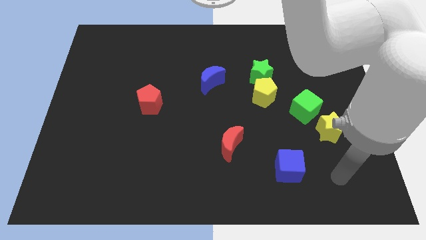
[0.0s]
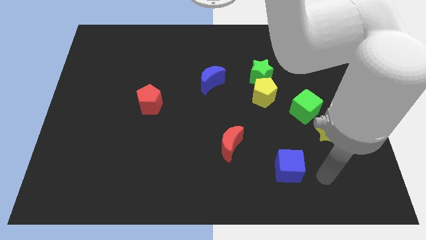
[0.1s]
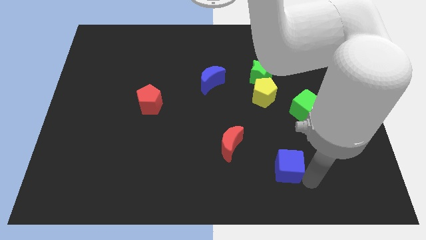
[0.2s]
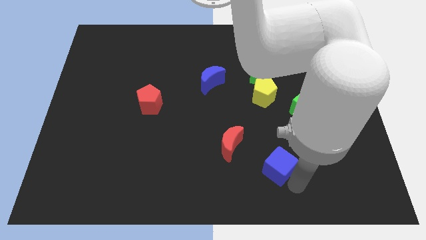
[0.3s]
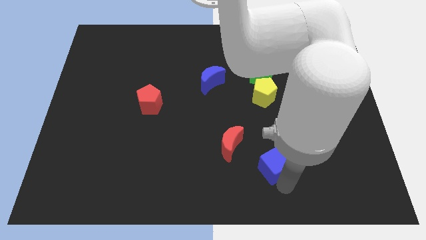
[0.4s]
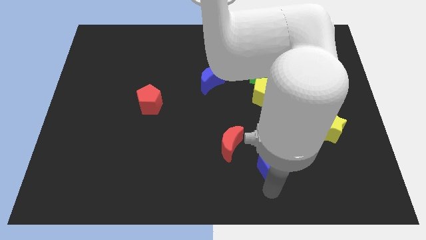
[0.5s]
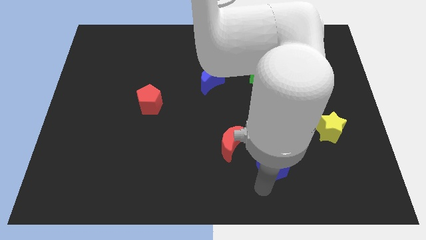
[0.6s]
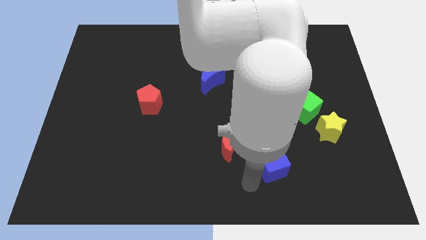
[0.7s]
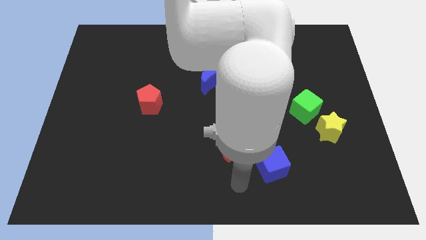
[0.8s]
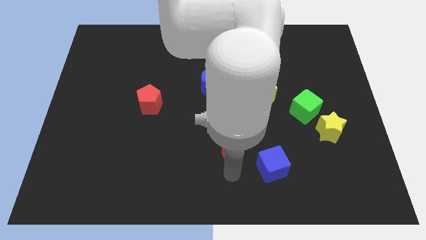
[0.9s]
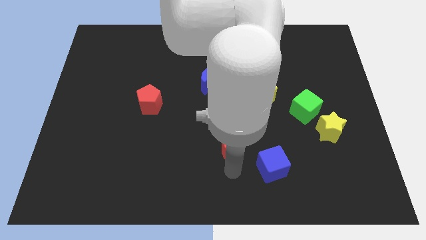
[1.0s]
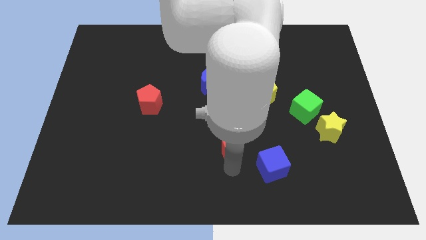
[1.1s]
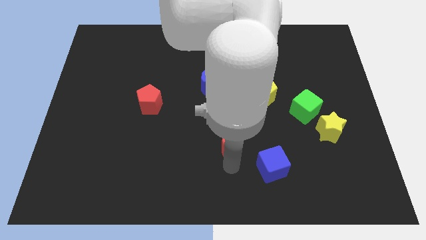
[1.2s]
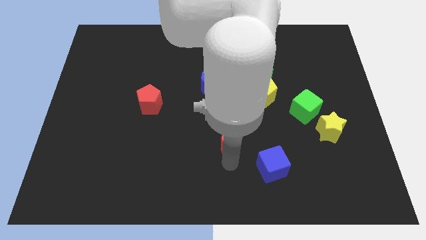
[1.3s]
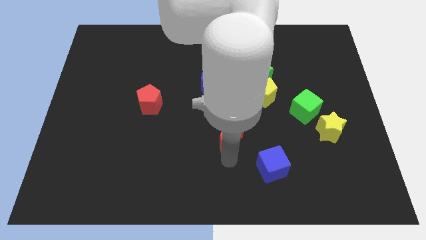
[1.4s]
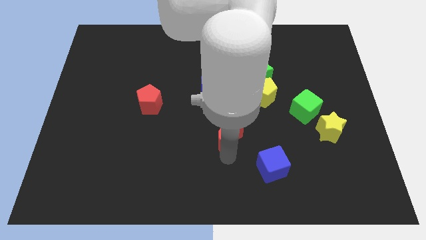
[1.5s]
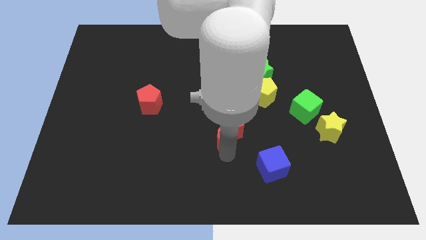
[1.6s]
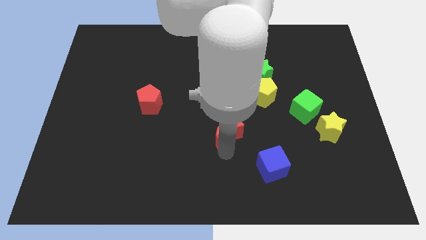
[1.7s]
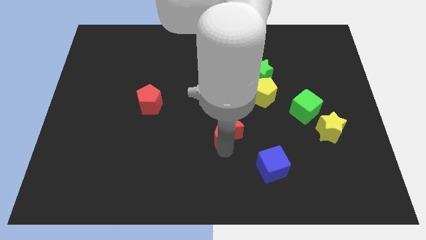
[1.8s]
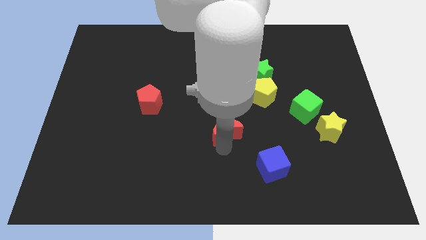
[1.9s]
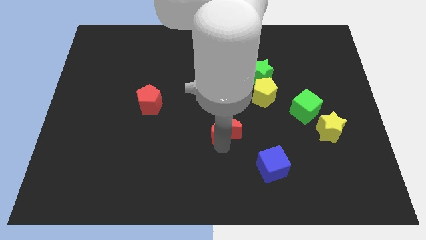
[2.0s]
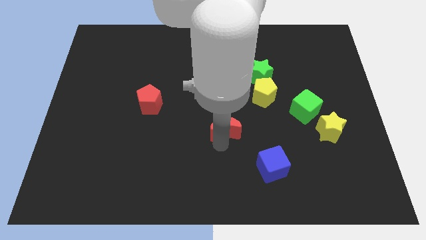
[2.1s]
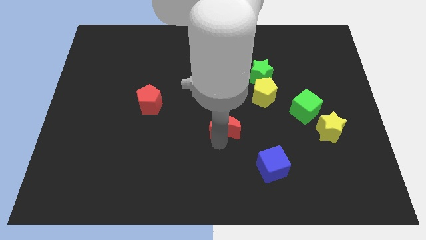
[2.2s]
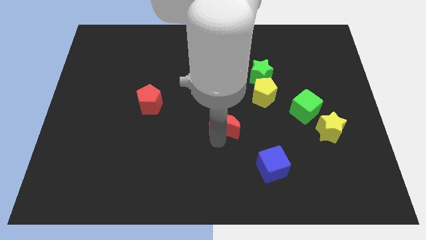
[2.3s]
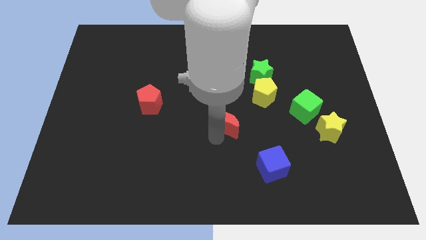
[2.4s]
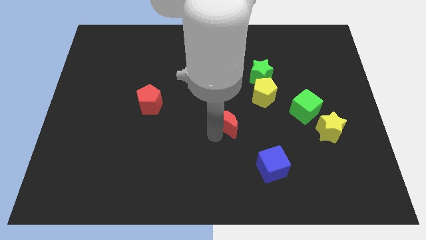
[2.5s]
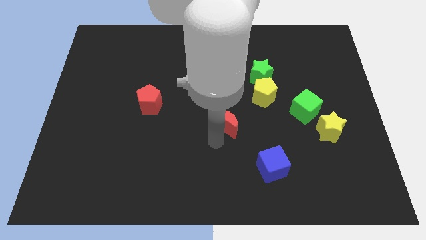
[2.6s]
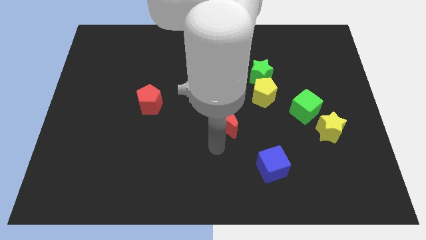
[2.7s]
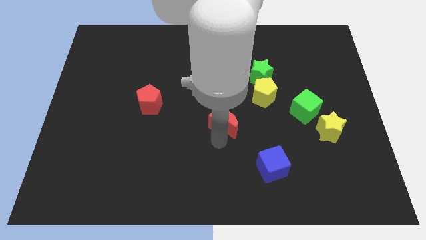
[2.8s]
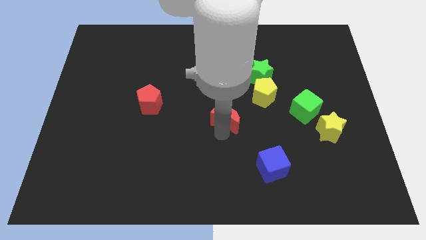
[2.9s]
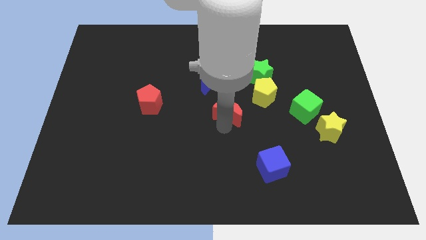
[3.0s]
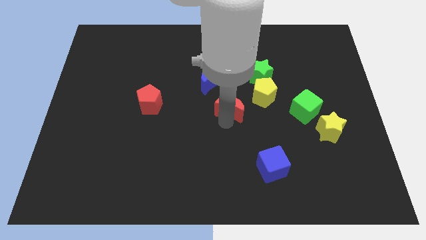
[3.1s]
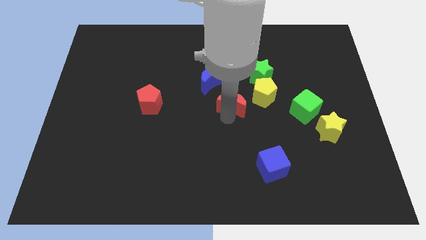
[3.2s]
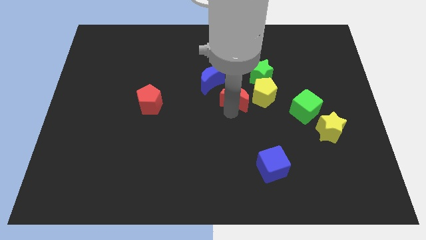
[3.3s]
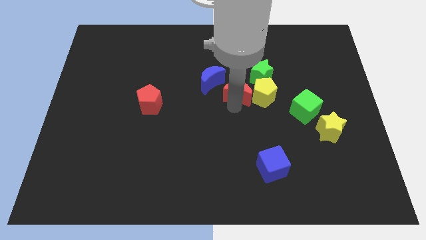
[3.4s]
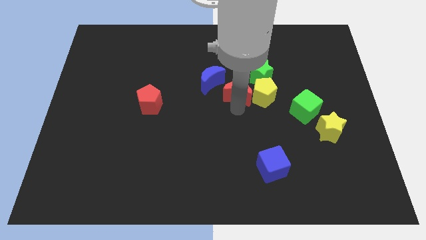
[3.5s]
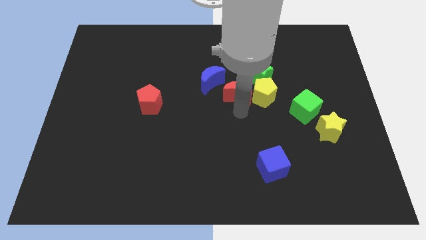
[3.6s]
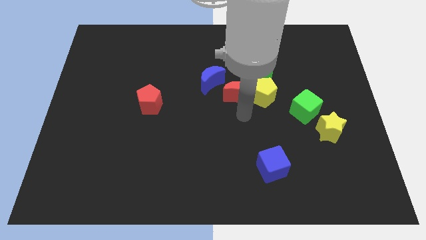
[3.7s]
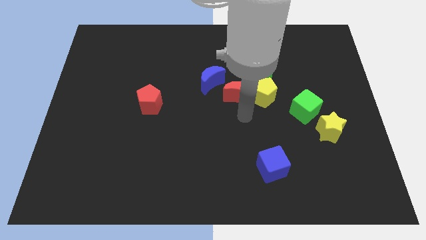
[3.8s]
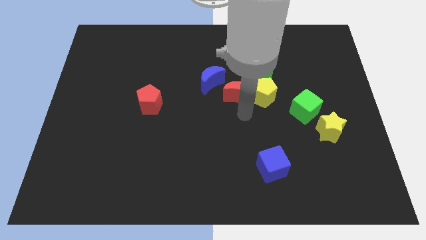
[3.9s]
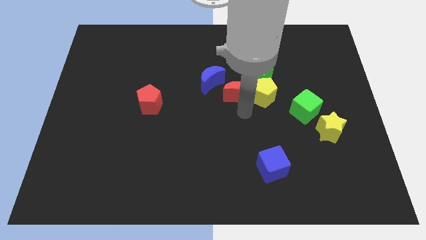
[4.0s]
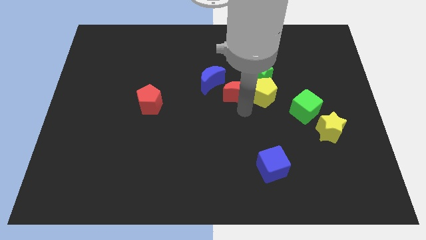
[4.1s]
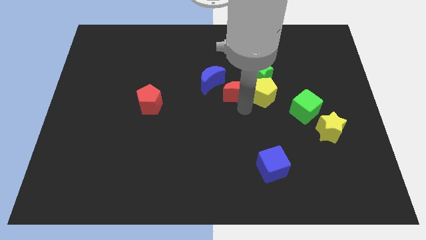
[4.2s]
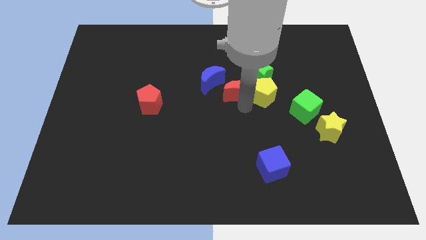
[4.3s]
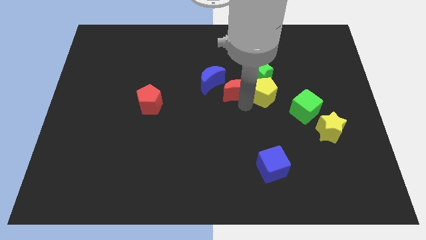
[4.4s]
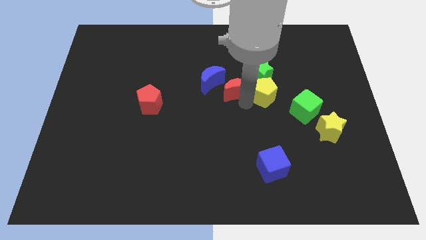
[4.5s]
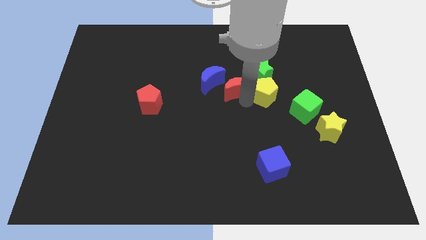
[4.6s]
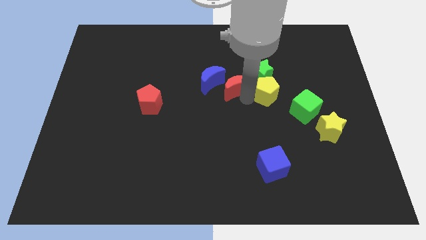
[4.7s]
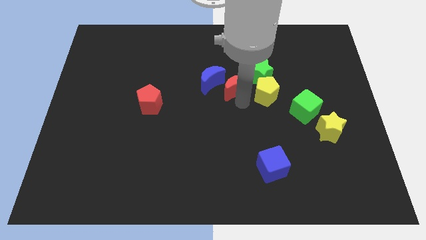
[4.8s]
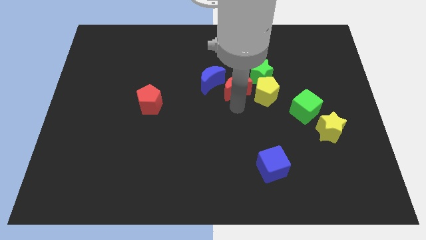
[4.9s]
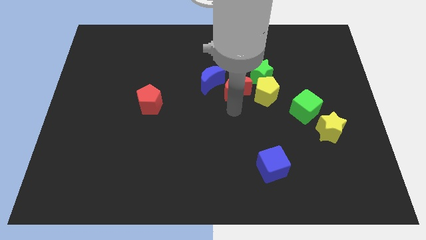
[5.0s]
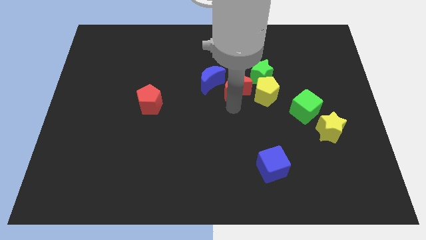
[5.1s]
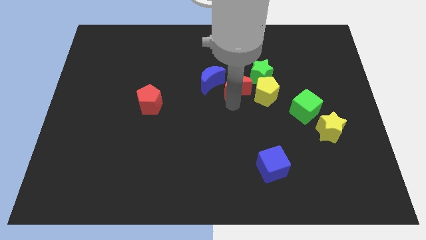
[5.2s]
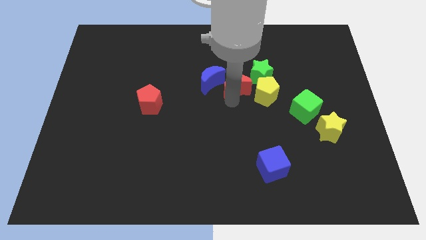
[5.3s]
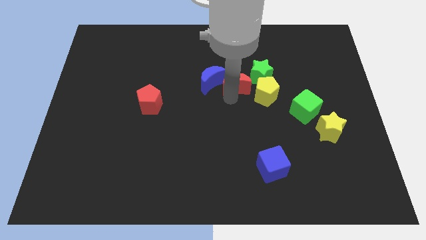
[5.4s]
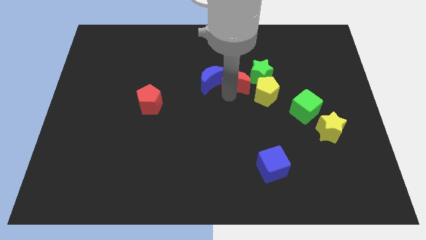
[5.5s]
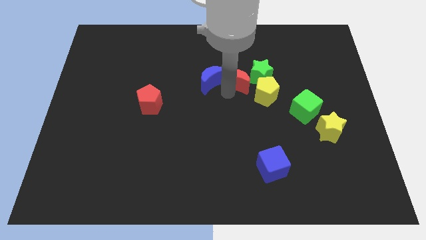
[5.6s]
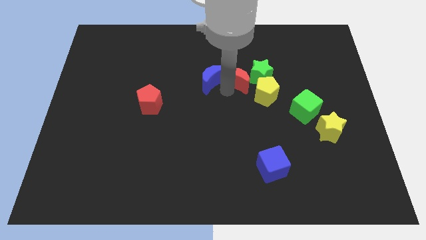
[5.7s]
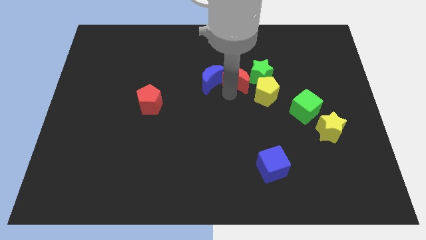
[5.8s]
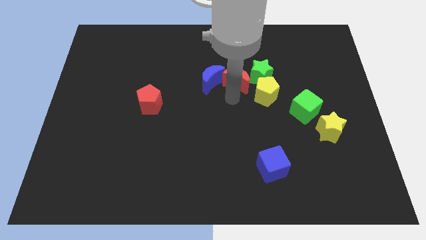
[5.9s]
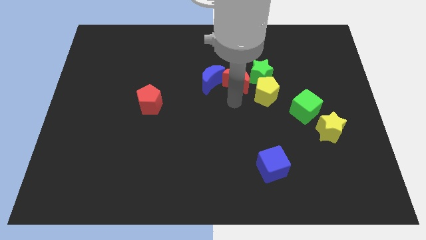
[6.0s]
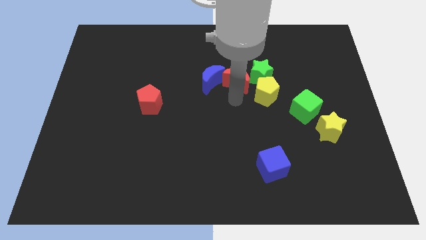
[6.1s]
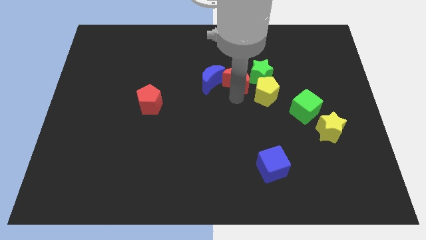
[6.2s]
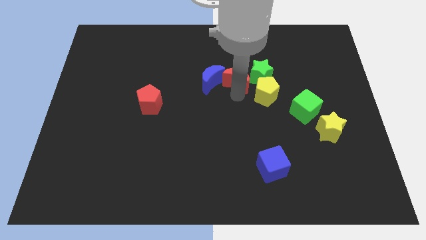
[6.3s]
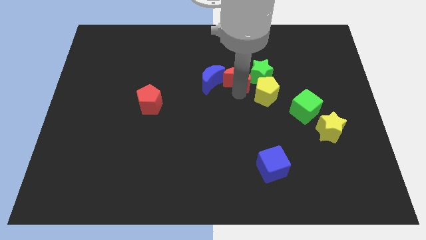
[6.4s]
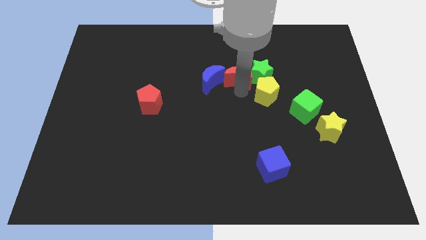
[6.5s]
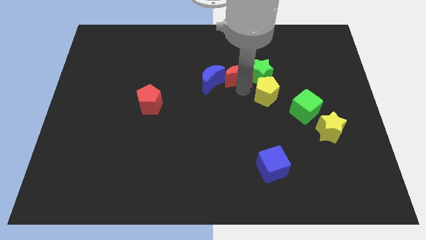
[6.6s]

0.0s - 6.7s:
slide the red moon diagonally up and to the left of the green star

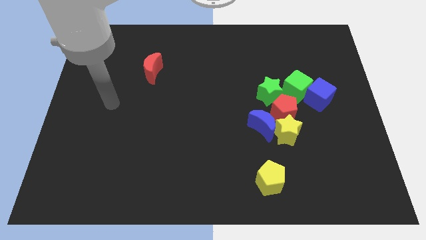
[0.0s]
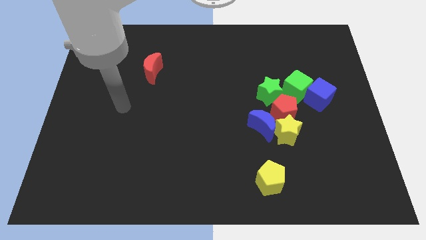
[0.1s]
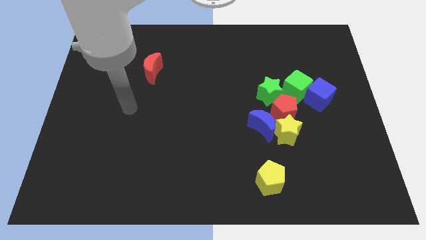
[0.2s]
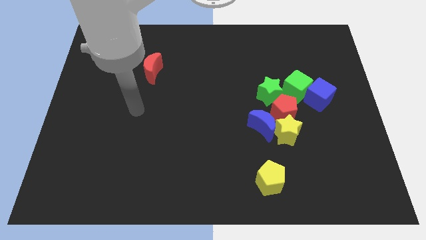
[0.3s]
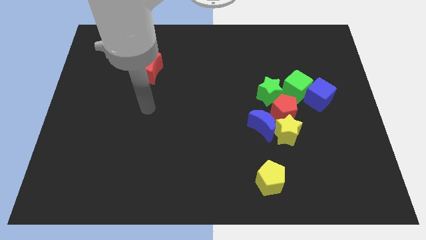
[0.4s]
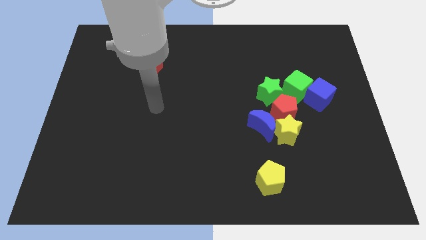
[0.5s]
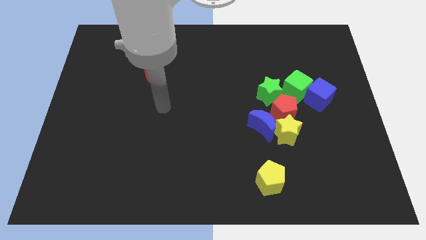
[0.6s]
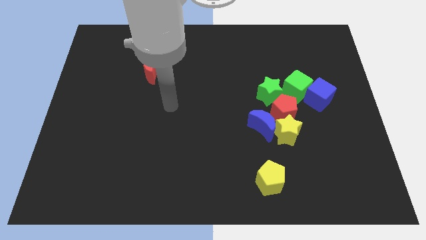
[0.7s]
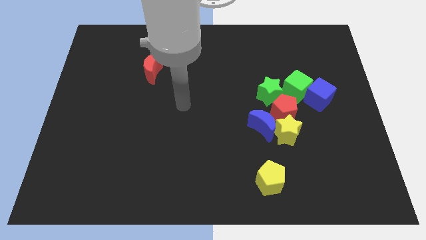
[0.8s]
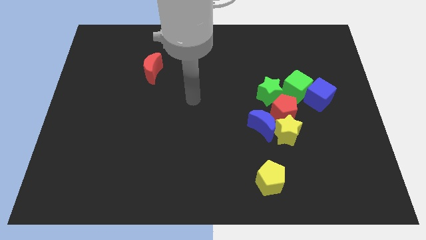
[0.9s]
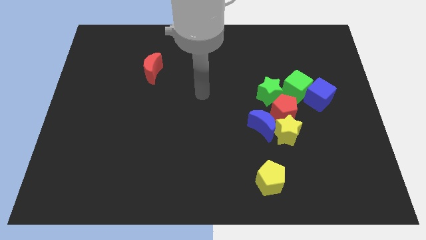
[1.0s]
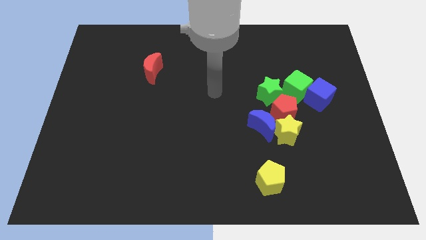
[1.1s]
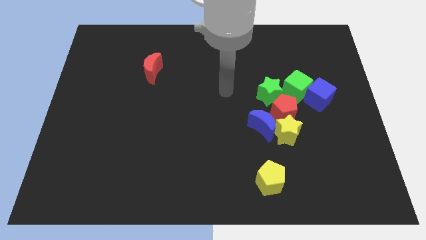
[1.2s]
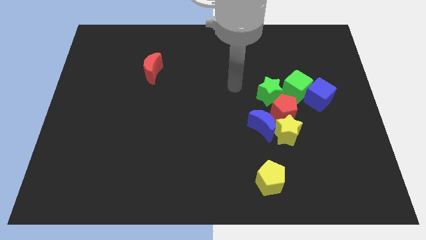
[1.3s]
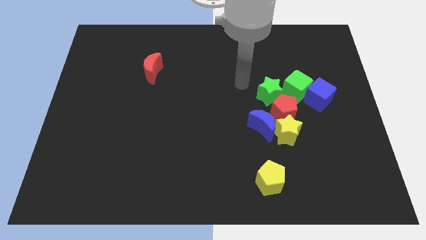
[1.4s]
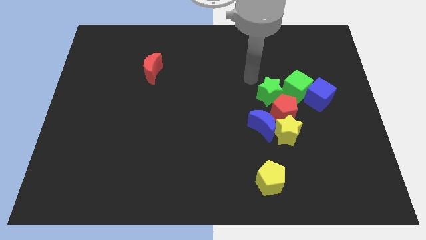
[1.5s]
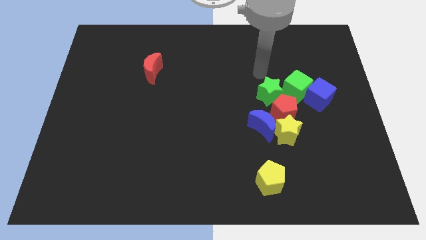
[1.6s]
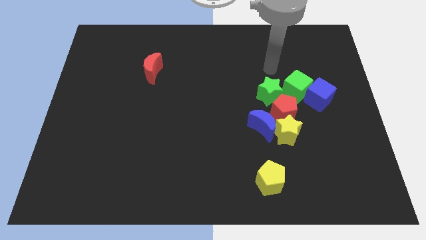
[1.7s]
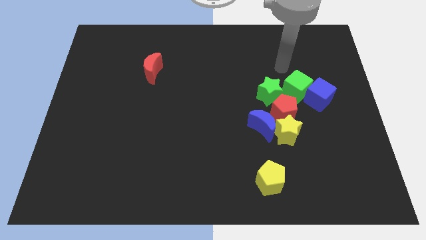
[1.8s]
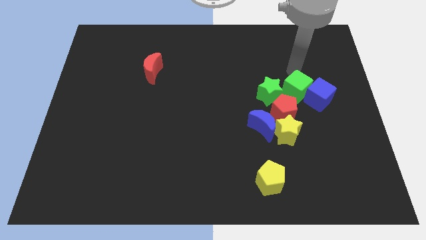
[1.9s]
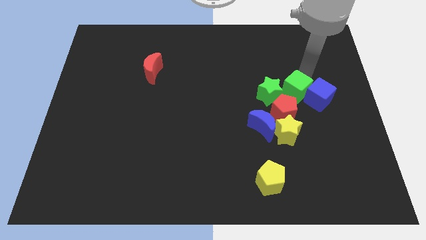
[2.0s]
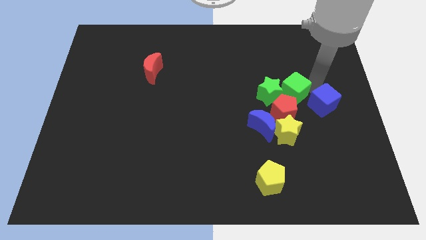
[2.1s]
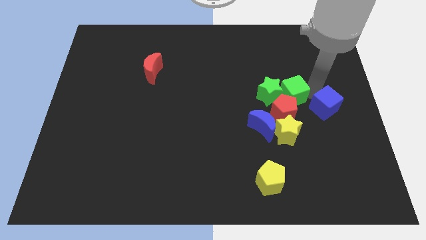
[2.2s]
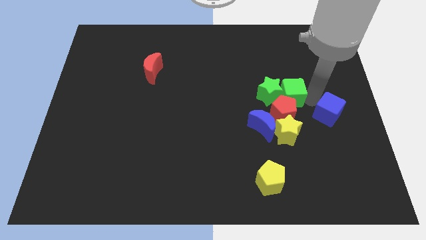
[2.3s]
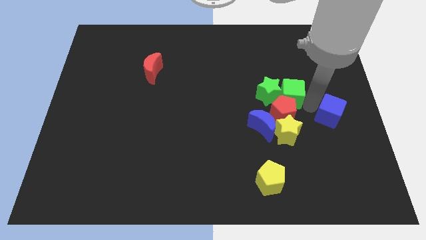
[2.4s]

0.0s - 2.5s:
slide the red pentagon to the top of the blue moon
